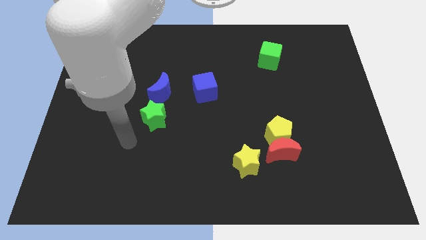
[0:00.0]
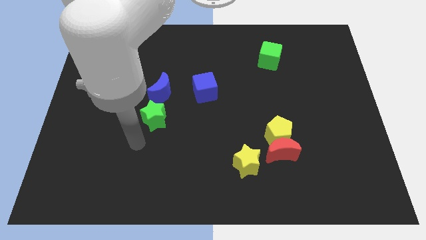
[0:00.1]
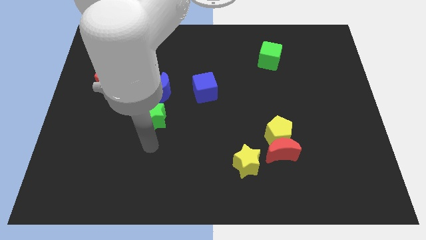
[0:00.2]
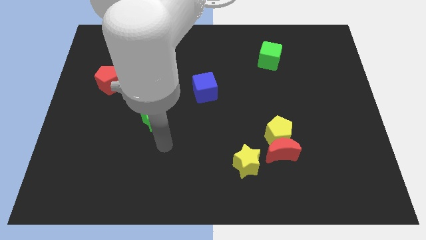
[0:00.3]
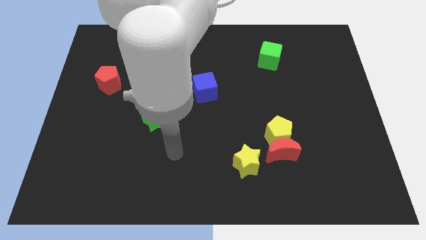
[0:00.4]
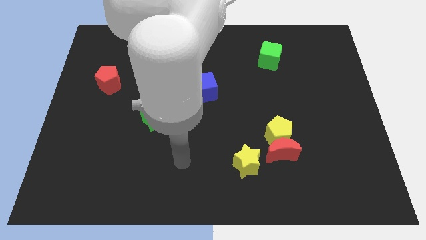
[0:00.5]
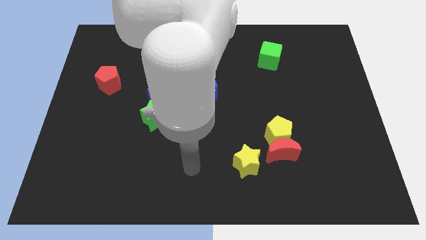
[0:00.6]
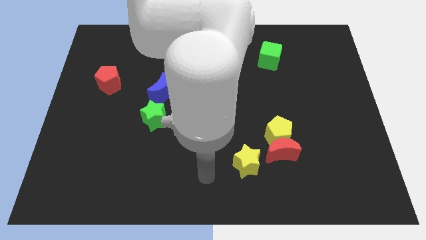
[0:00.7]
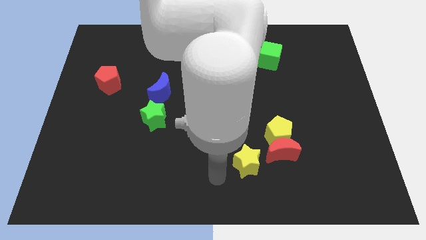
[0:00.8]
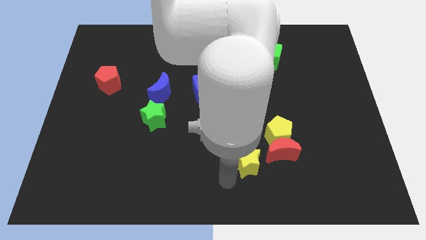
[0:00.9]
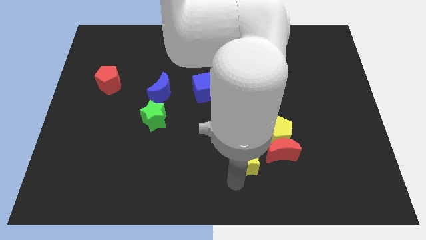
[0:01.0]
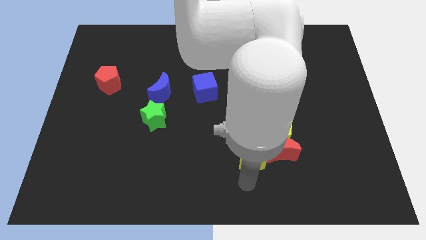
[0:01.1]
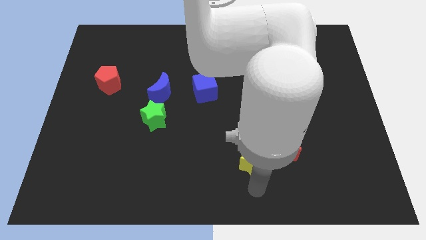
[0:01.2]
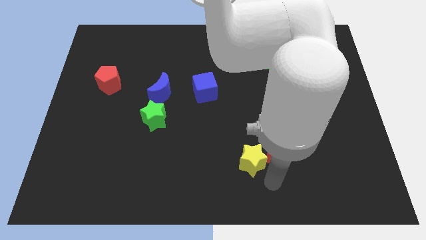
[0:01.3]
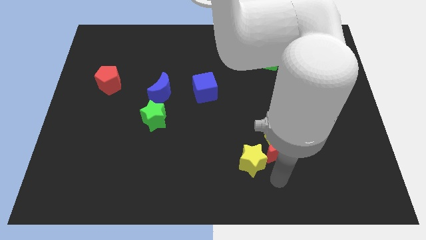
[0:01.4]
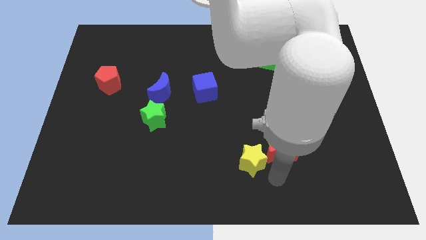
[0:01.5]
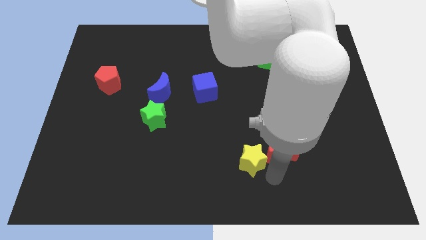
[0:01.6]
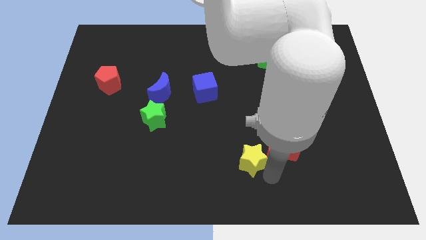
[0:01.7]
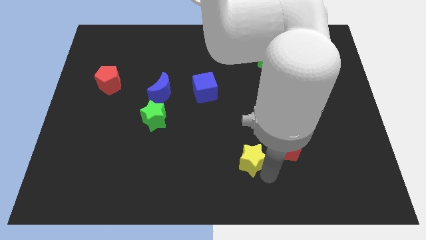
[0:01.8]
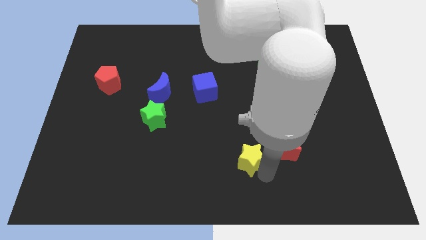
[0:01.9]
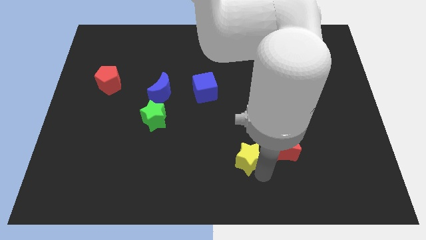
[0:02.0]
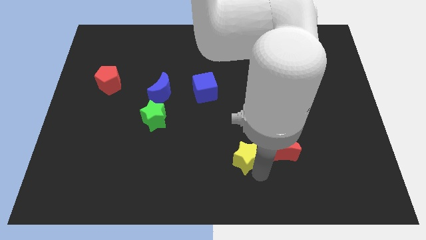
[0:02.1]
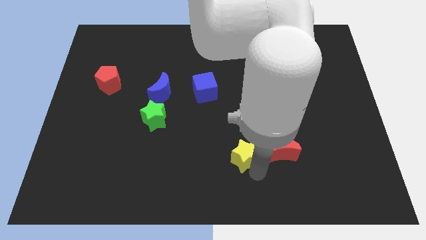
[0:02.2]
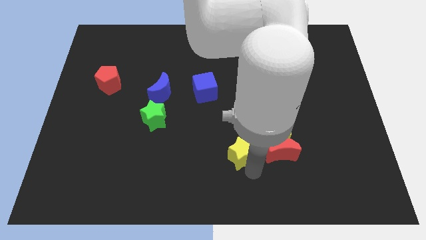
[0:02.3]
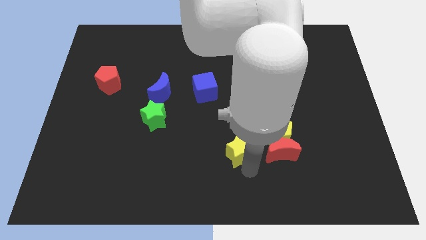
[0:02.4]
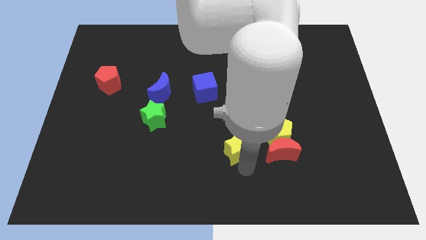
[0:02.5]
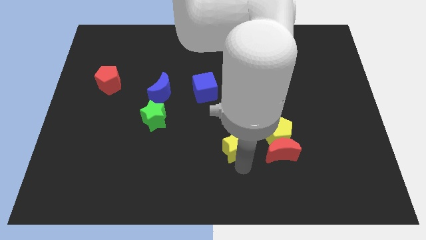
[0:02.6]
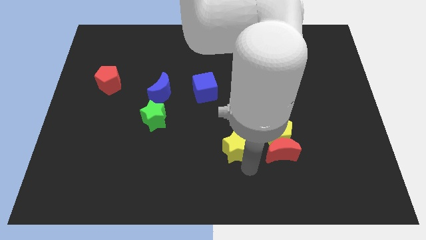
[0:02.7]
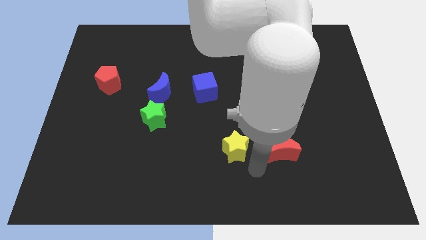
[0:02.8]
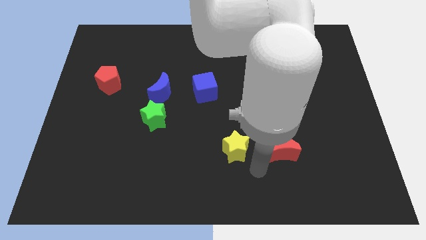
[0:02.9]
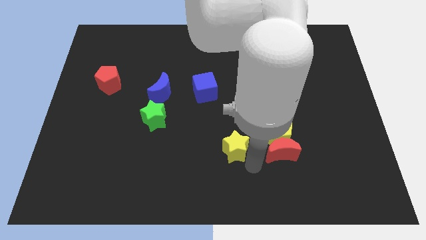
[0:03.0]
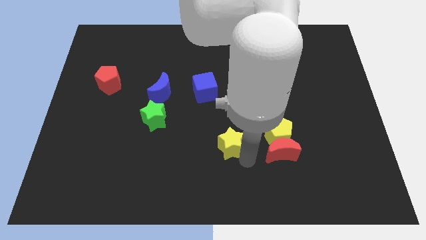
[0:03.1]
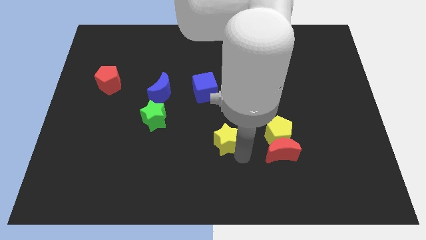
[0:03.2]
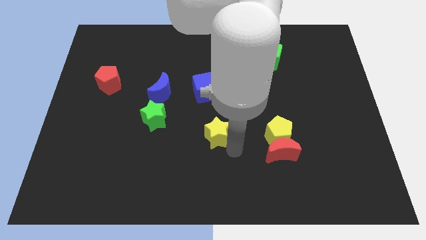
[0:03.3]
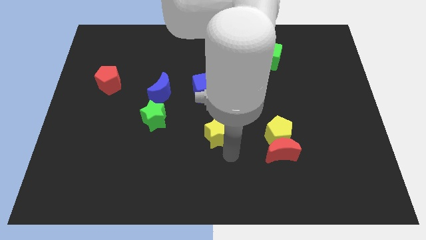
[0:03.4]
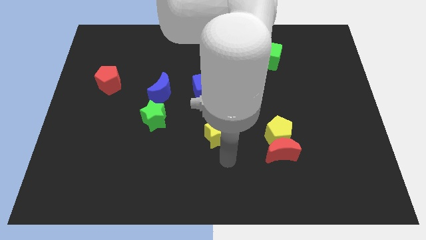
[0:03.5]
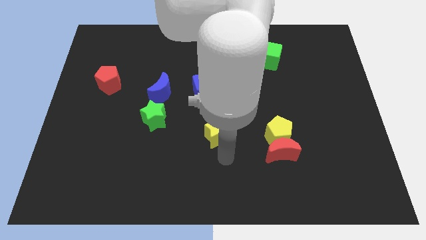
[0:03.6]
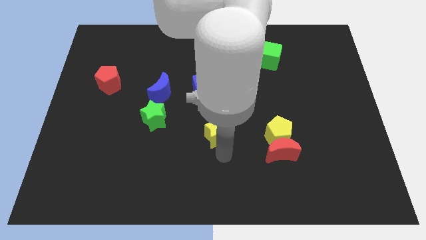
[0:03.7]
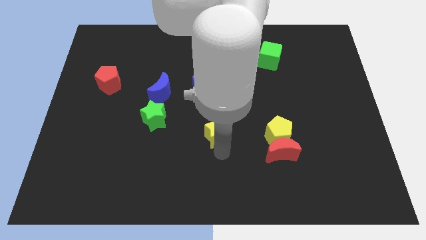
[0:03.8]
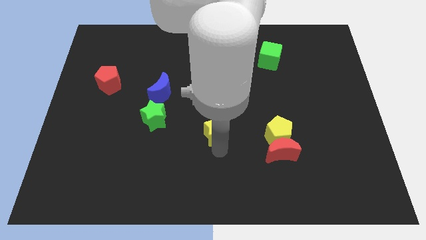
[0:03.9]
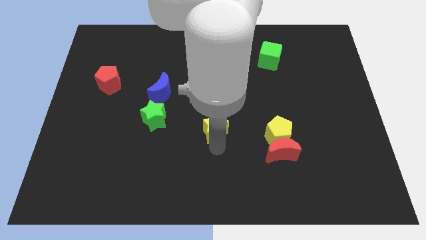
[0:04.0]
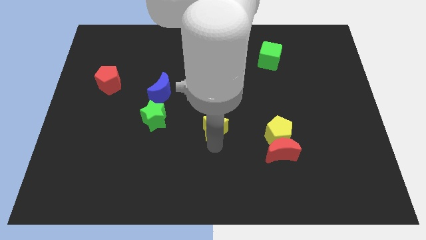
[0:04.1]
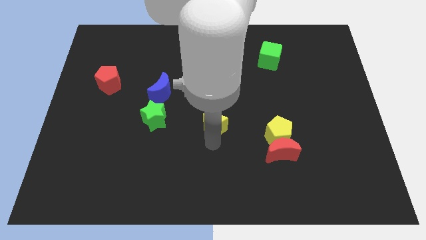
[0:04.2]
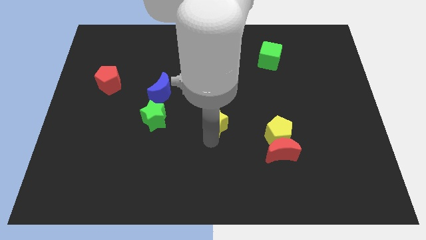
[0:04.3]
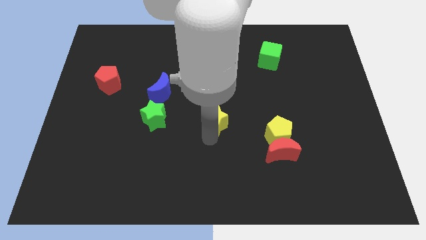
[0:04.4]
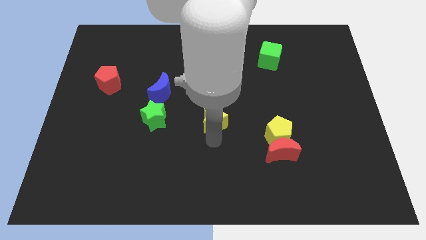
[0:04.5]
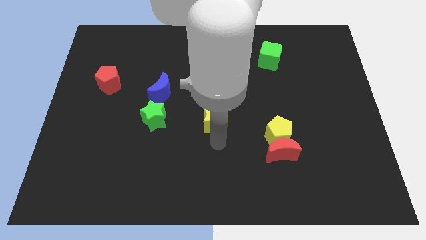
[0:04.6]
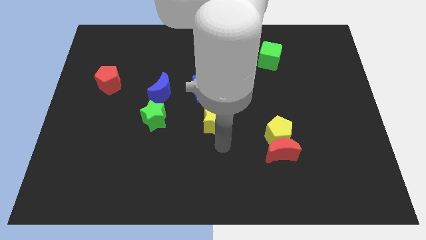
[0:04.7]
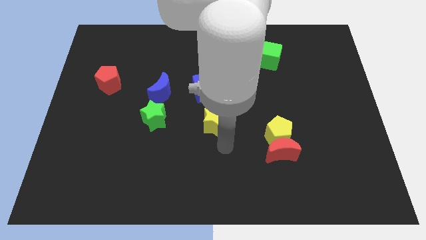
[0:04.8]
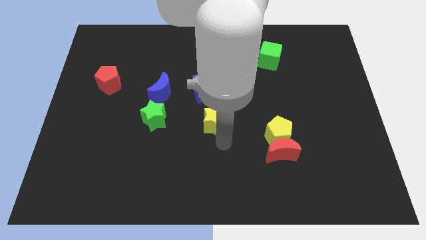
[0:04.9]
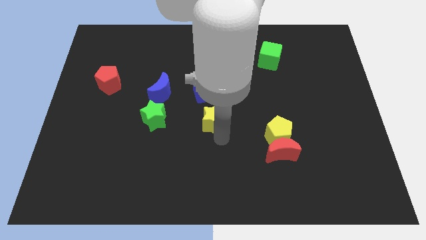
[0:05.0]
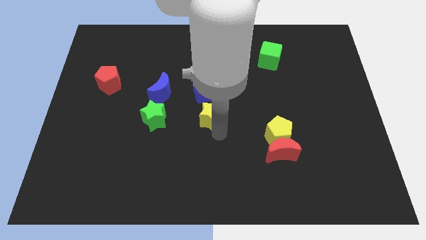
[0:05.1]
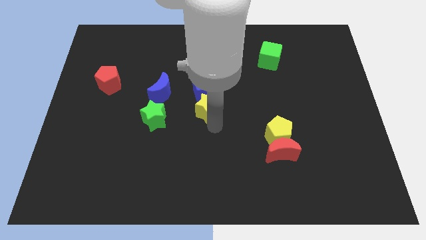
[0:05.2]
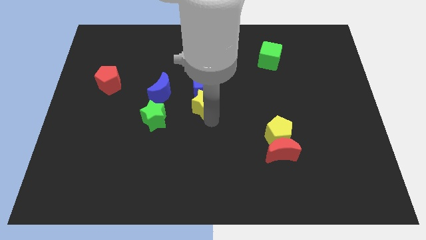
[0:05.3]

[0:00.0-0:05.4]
put the yellow star to the blue cube

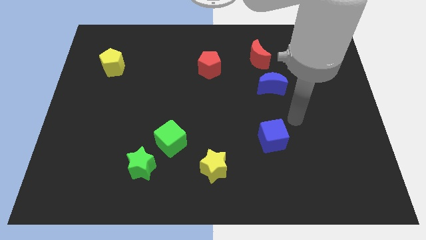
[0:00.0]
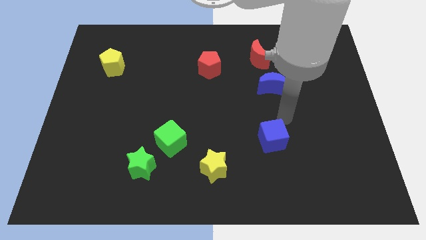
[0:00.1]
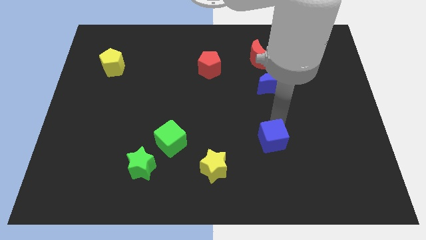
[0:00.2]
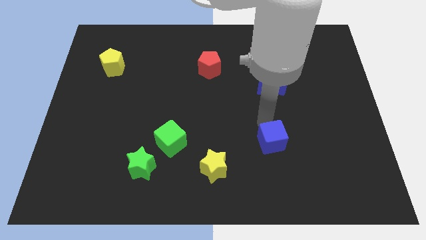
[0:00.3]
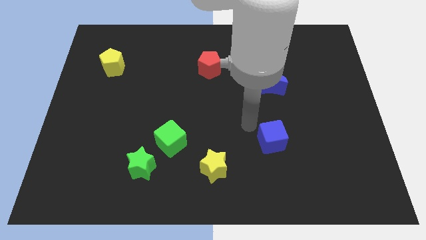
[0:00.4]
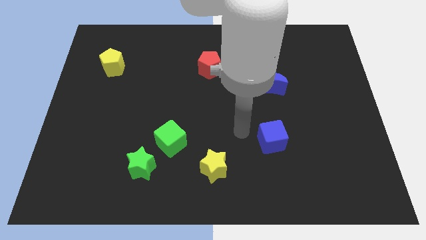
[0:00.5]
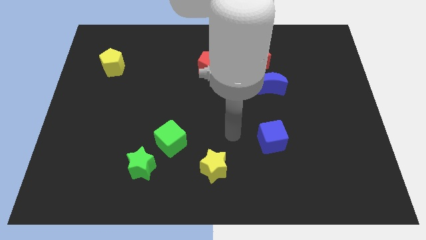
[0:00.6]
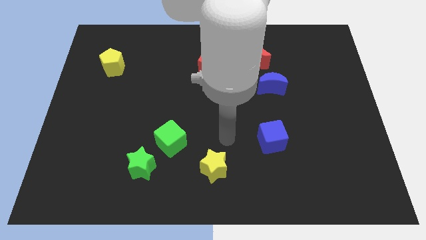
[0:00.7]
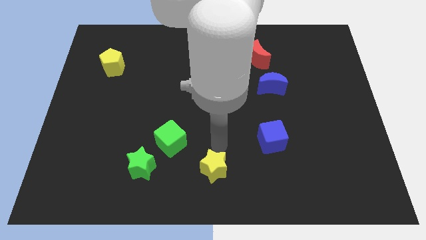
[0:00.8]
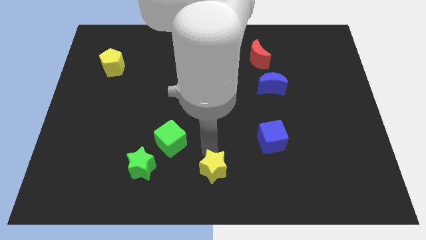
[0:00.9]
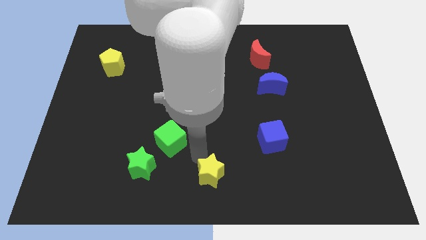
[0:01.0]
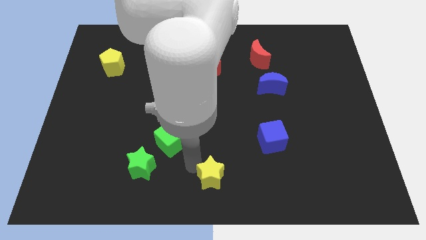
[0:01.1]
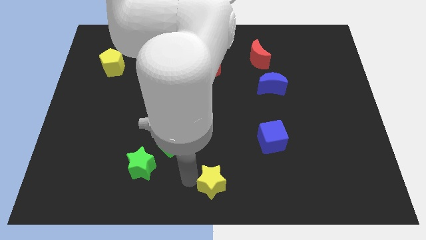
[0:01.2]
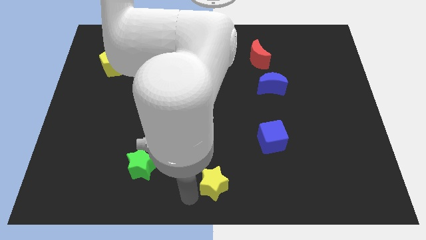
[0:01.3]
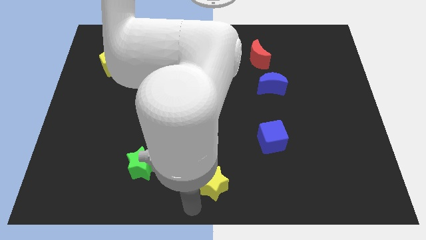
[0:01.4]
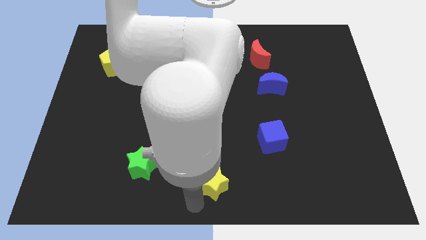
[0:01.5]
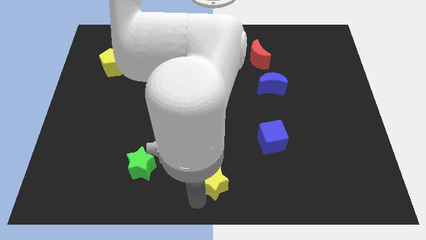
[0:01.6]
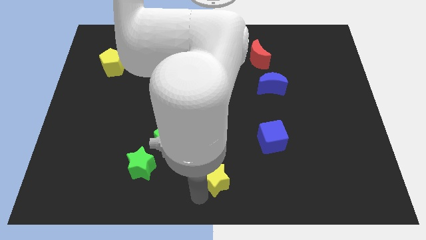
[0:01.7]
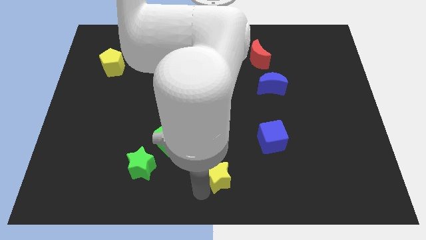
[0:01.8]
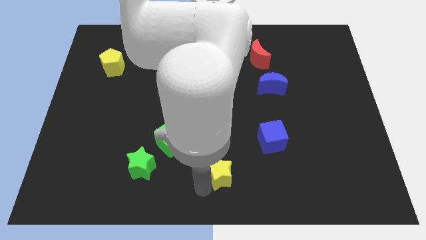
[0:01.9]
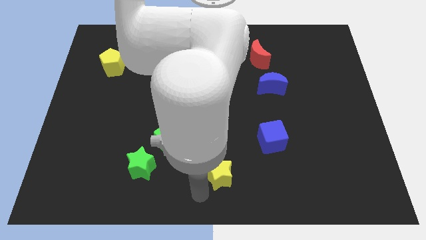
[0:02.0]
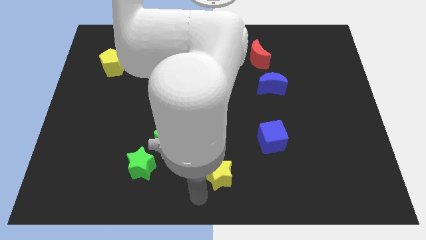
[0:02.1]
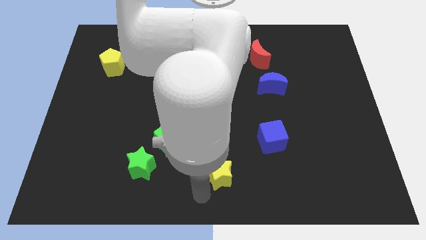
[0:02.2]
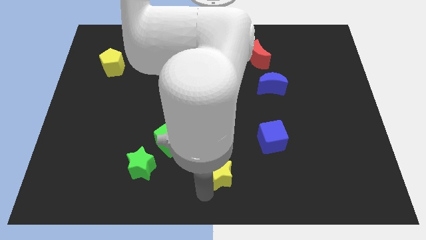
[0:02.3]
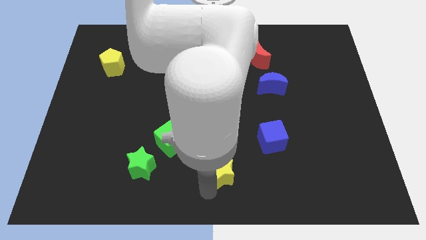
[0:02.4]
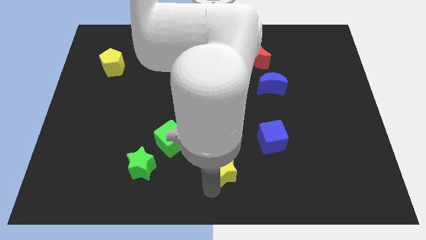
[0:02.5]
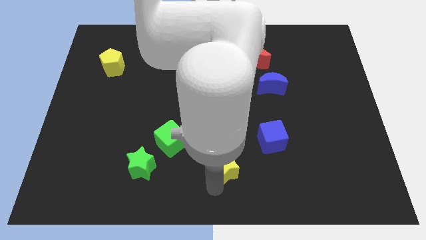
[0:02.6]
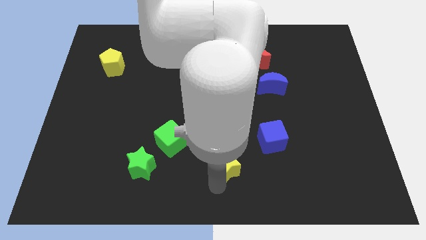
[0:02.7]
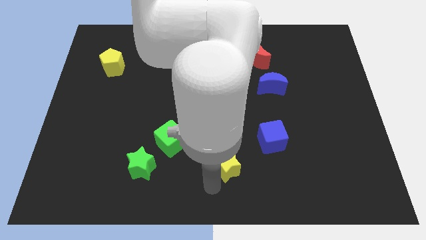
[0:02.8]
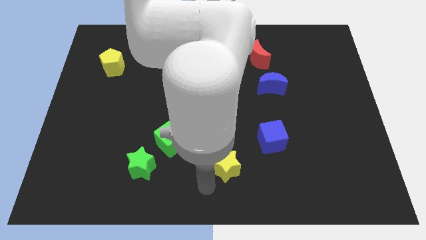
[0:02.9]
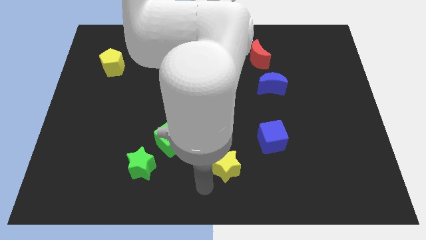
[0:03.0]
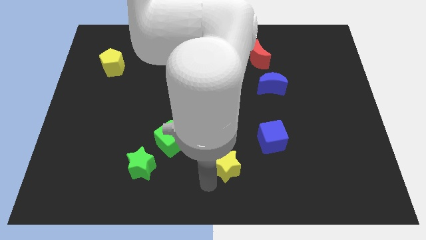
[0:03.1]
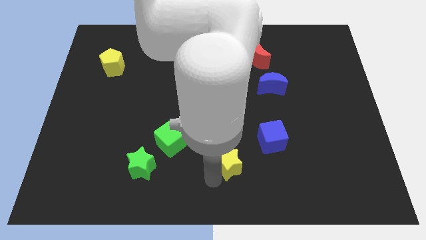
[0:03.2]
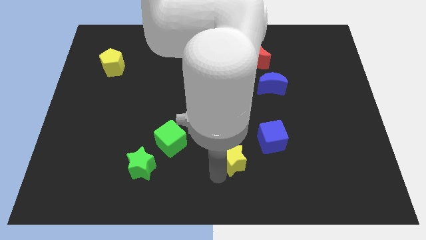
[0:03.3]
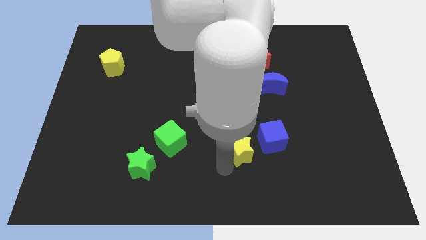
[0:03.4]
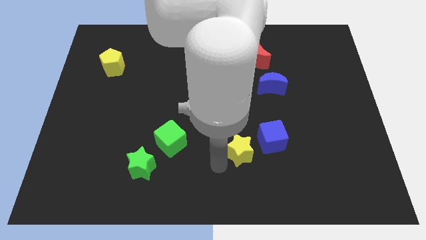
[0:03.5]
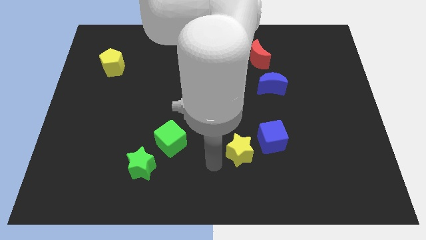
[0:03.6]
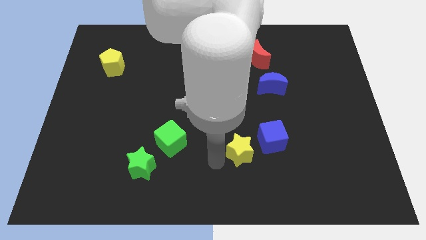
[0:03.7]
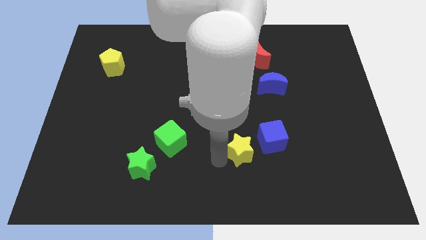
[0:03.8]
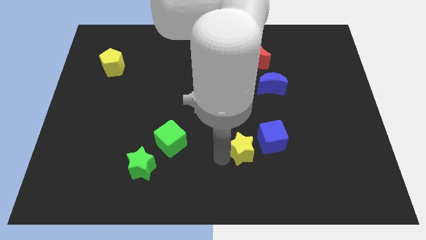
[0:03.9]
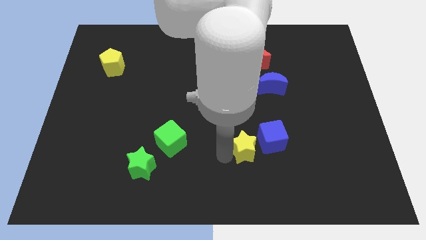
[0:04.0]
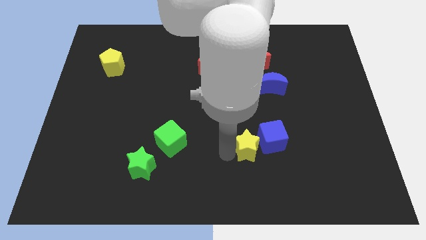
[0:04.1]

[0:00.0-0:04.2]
put the yellow star towards the blue cube
